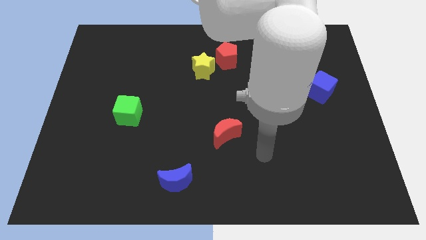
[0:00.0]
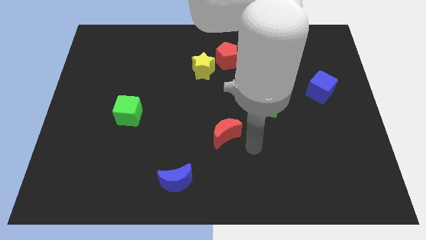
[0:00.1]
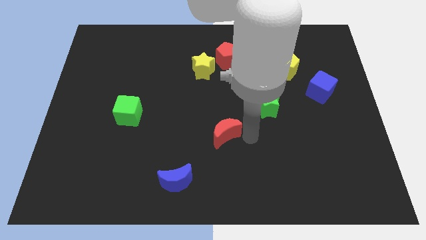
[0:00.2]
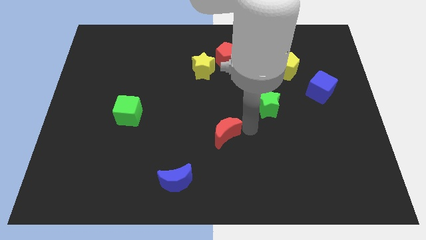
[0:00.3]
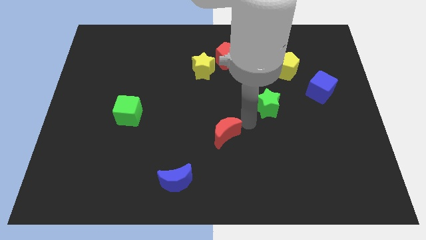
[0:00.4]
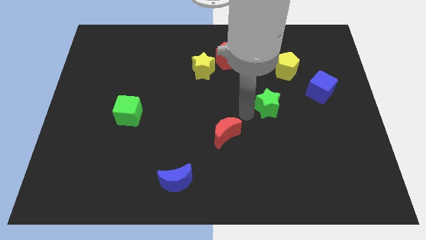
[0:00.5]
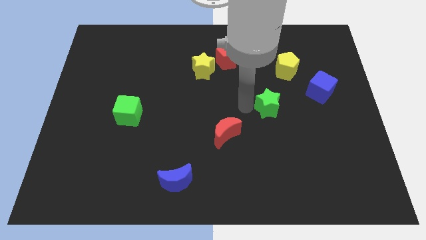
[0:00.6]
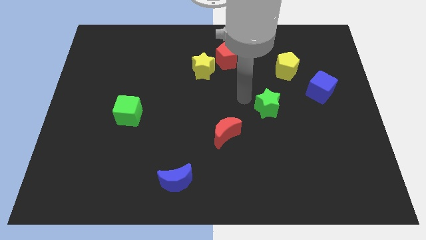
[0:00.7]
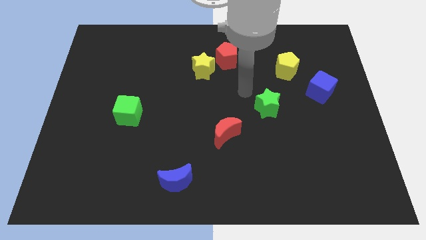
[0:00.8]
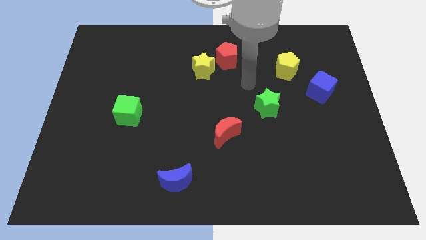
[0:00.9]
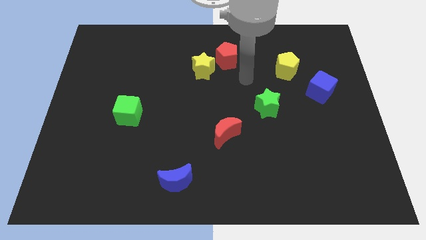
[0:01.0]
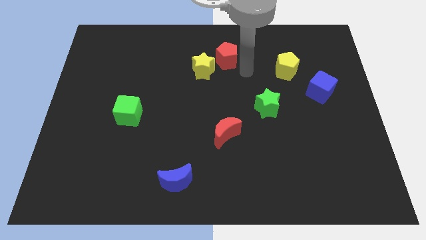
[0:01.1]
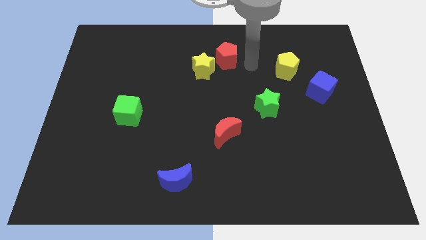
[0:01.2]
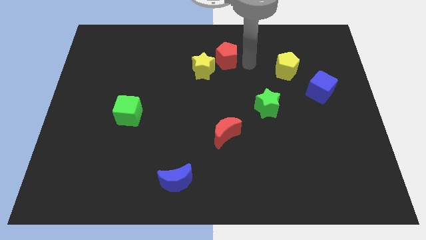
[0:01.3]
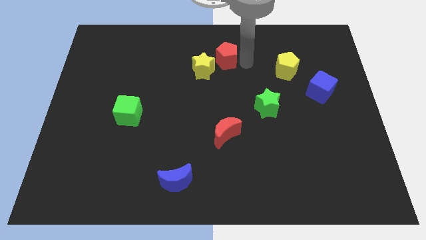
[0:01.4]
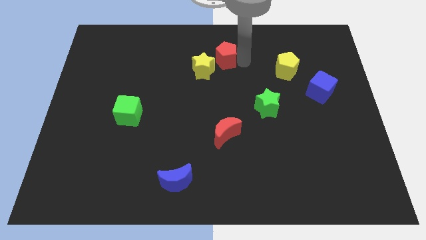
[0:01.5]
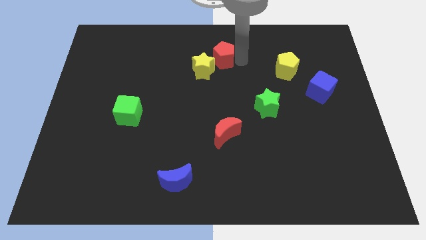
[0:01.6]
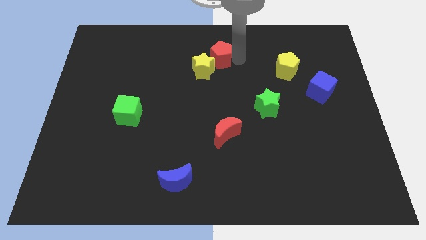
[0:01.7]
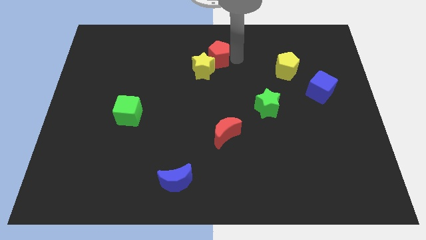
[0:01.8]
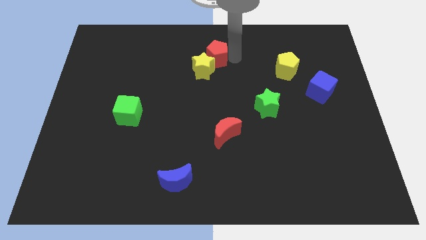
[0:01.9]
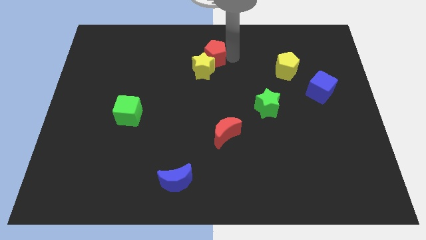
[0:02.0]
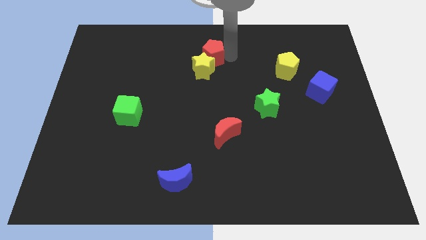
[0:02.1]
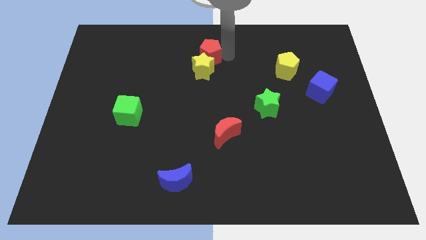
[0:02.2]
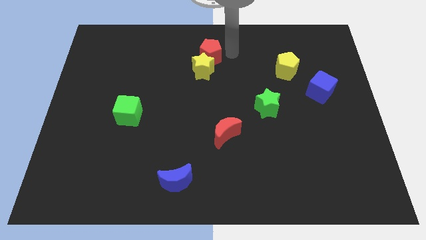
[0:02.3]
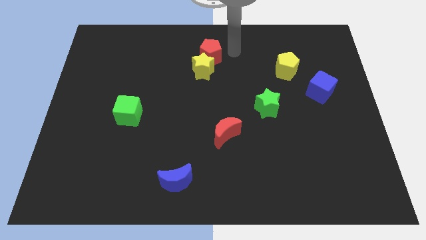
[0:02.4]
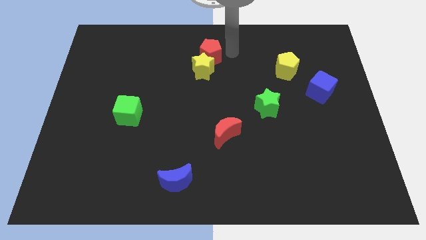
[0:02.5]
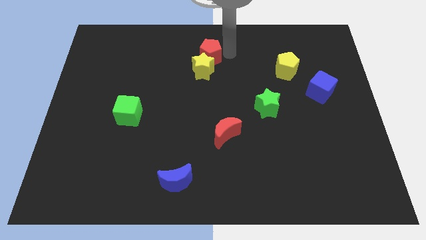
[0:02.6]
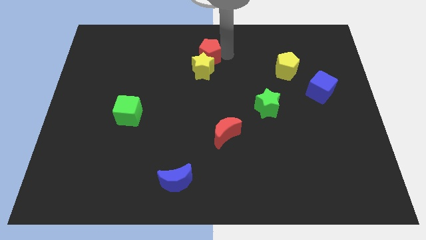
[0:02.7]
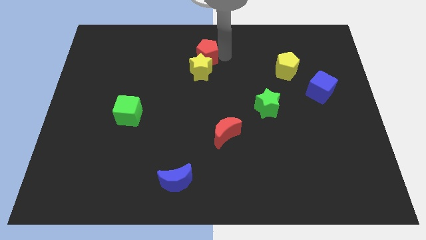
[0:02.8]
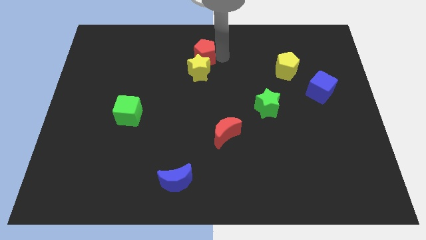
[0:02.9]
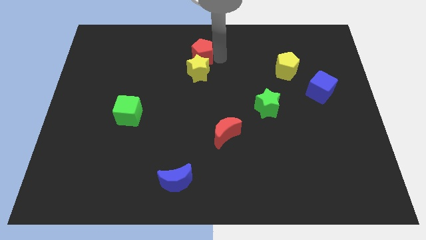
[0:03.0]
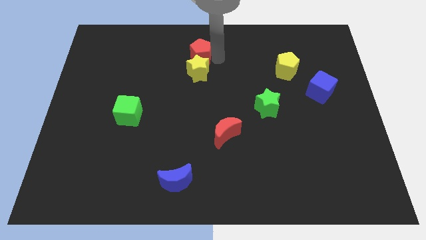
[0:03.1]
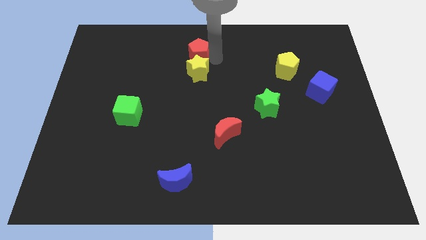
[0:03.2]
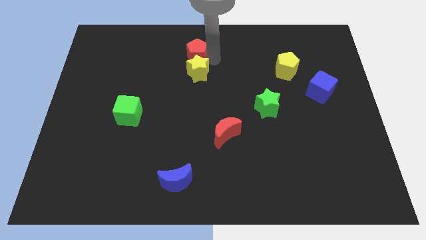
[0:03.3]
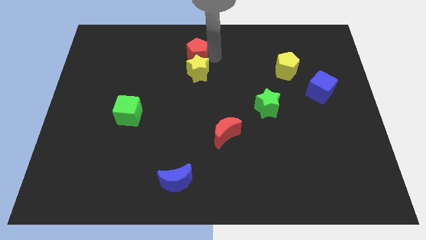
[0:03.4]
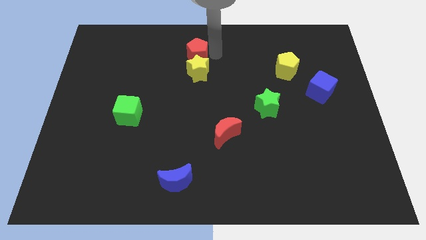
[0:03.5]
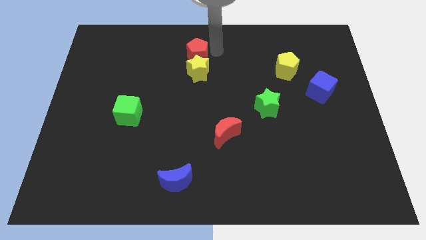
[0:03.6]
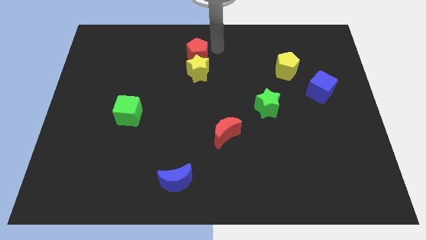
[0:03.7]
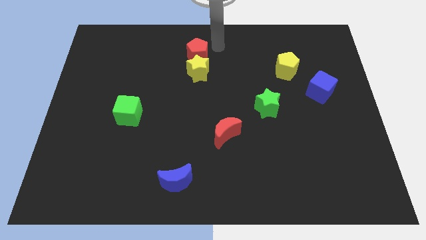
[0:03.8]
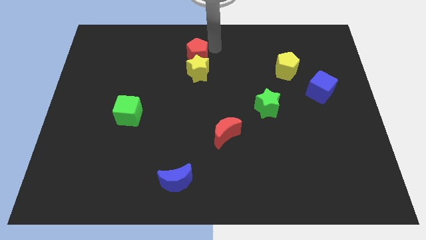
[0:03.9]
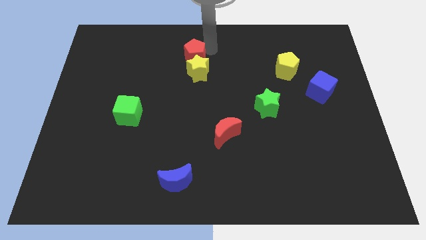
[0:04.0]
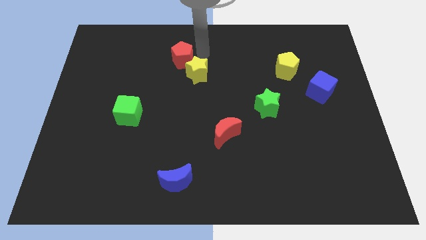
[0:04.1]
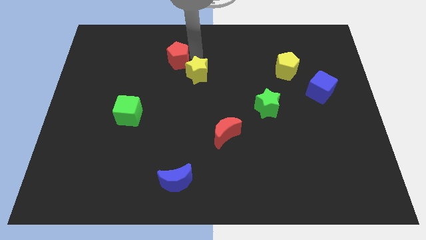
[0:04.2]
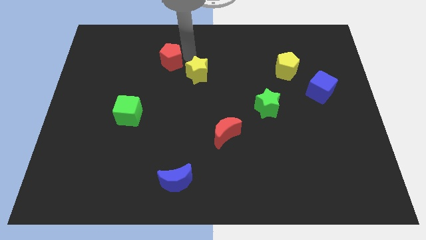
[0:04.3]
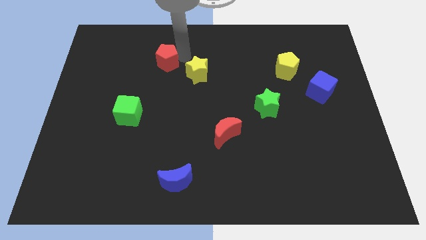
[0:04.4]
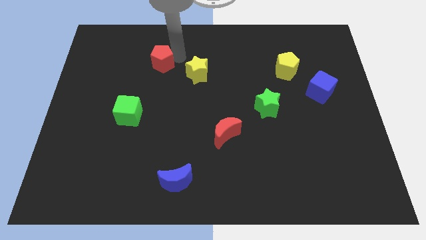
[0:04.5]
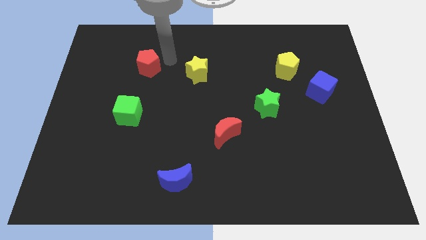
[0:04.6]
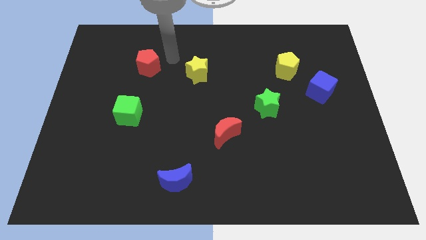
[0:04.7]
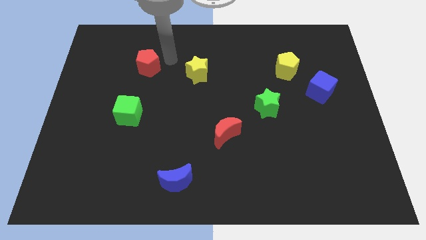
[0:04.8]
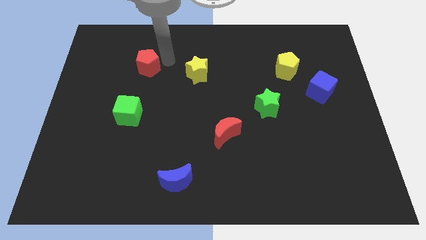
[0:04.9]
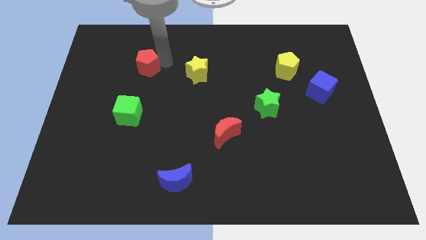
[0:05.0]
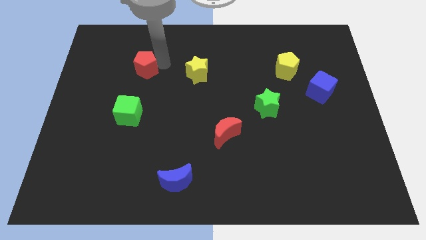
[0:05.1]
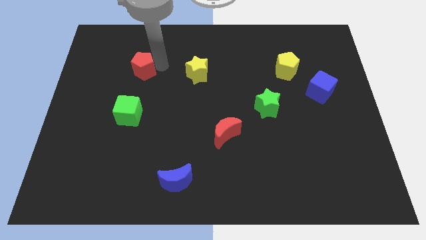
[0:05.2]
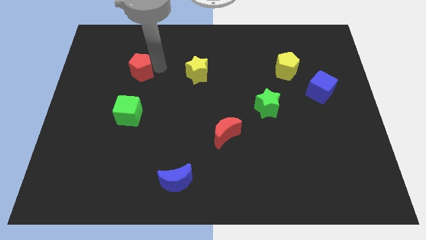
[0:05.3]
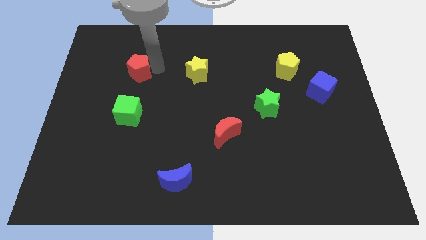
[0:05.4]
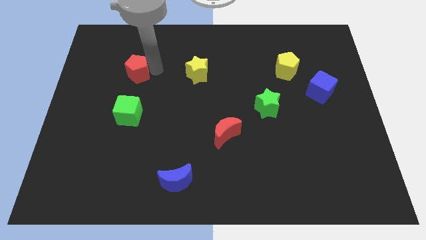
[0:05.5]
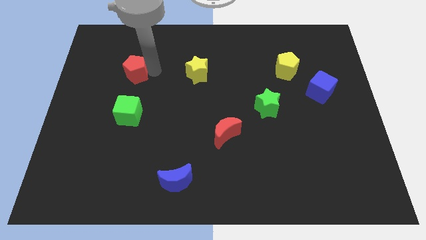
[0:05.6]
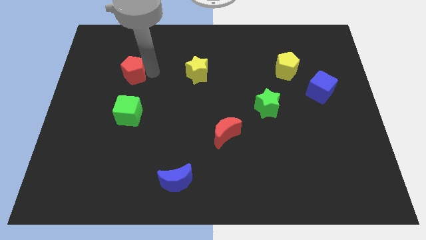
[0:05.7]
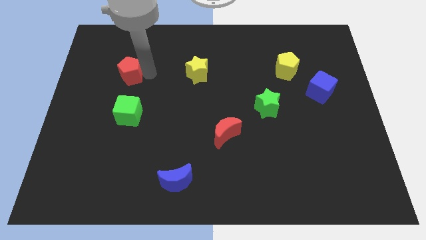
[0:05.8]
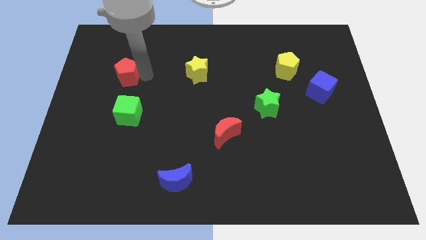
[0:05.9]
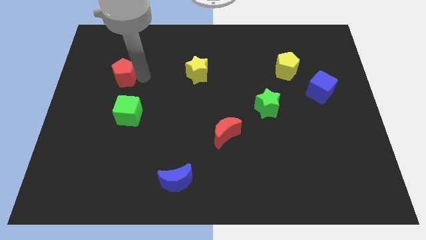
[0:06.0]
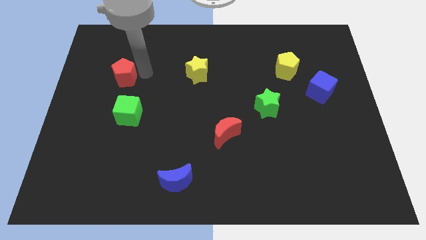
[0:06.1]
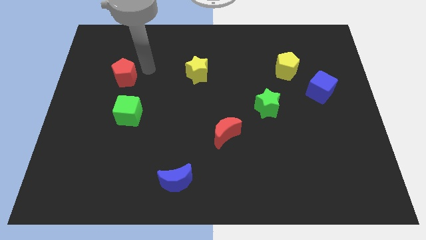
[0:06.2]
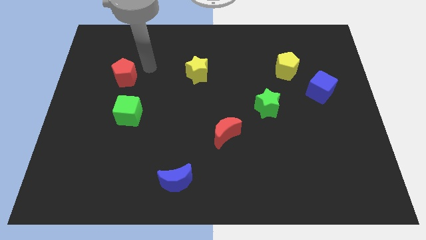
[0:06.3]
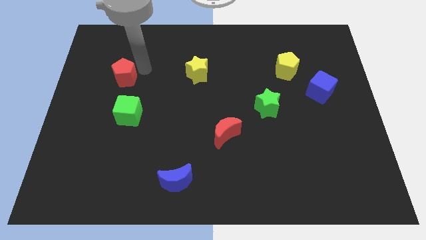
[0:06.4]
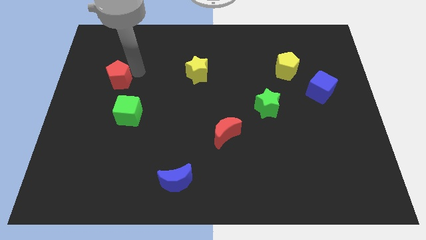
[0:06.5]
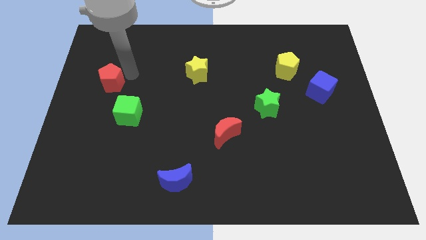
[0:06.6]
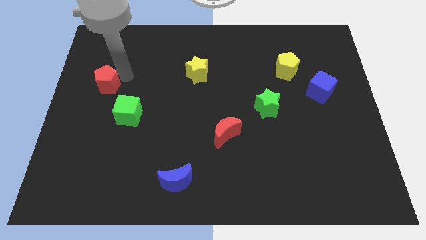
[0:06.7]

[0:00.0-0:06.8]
put the red pentagon to the left side of the board
